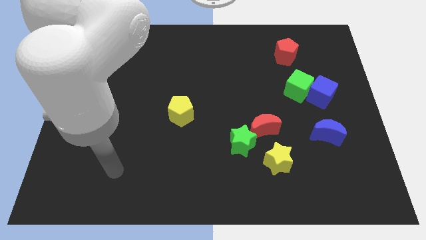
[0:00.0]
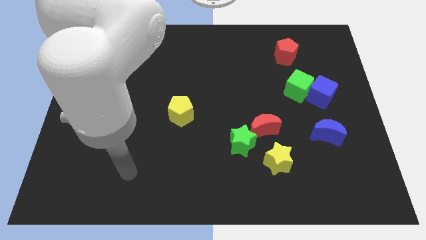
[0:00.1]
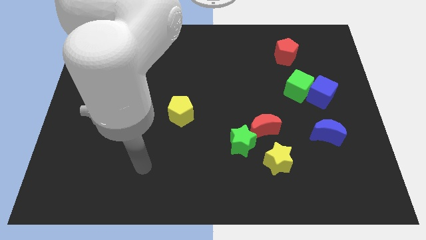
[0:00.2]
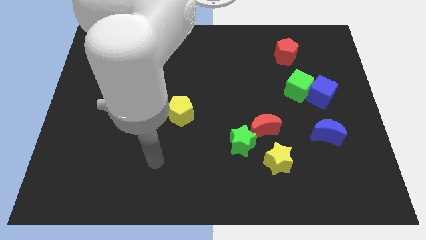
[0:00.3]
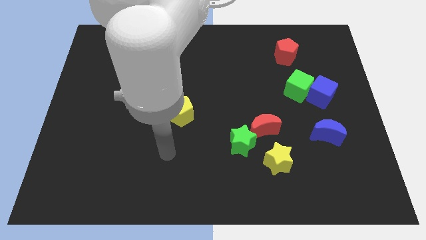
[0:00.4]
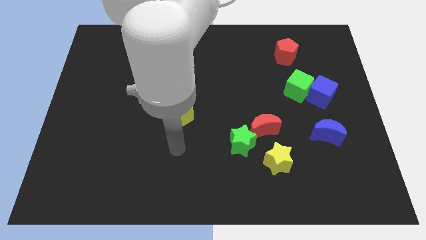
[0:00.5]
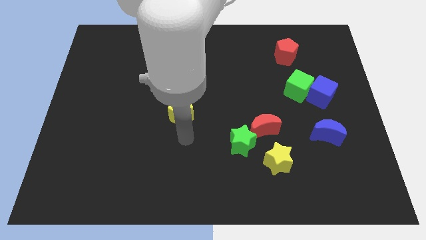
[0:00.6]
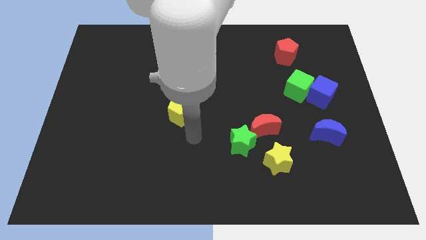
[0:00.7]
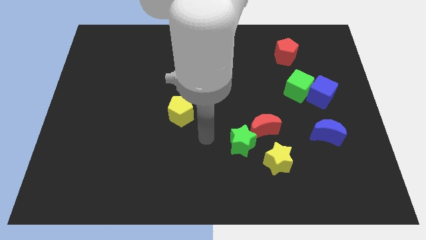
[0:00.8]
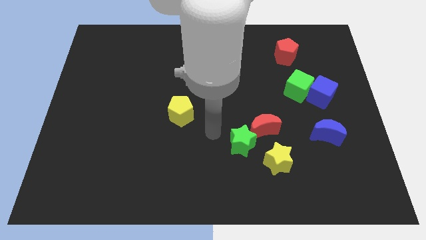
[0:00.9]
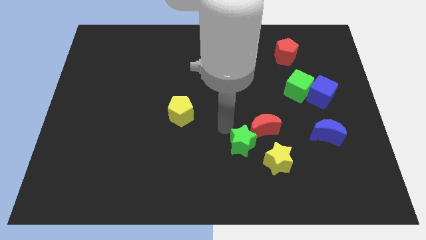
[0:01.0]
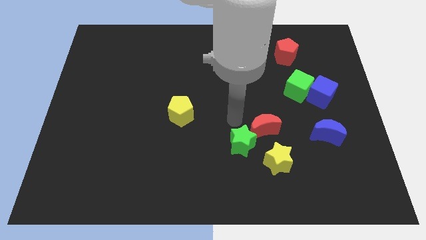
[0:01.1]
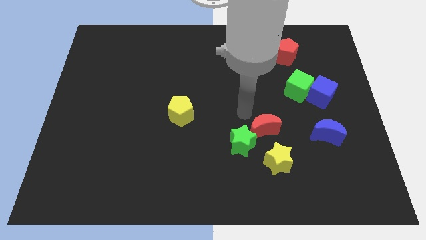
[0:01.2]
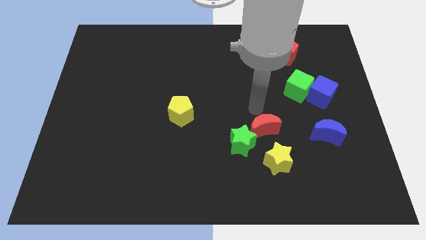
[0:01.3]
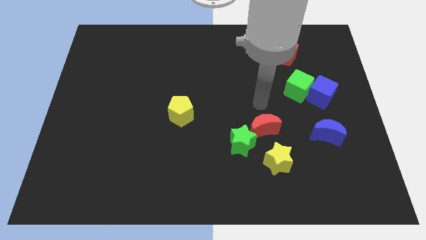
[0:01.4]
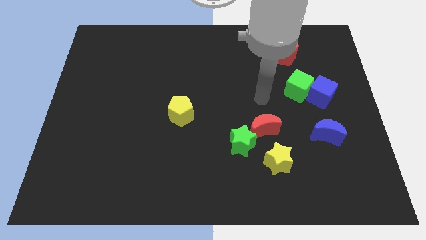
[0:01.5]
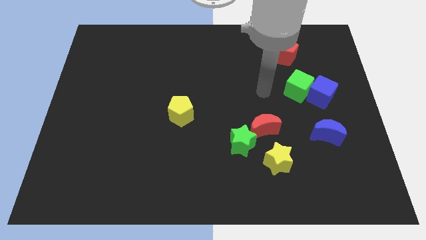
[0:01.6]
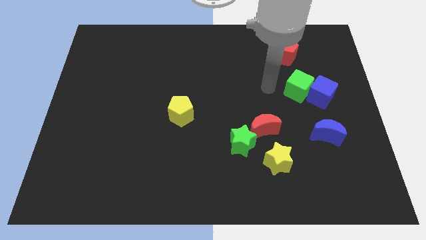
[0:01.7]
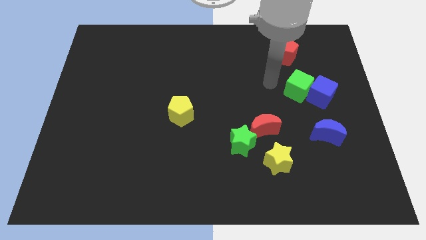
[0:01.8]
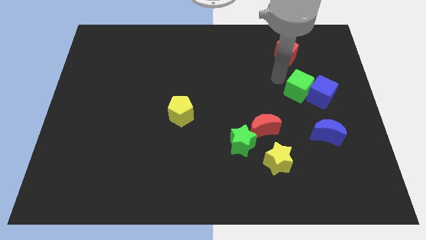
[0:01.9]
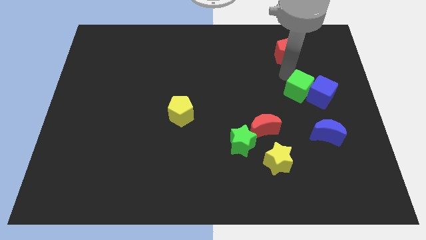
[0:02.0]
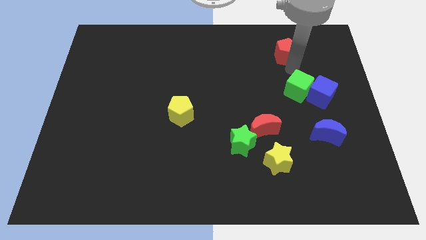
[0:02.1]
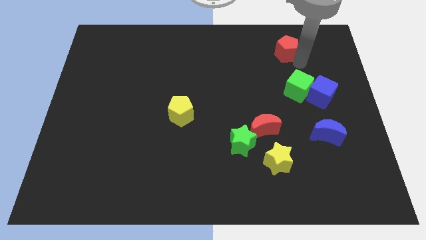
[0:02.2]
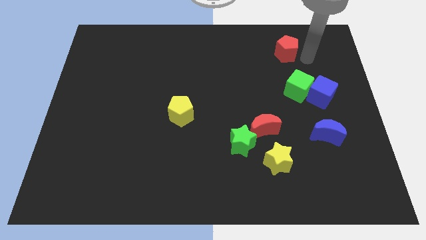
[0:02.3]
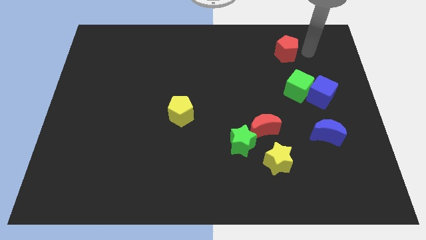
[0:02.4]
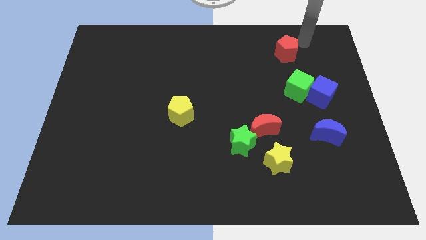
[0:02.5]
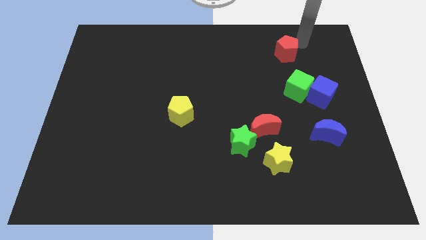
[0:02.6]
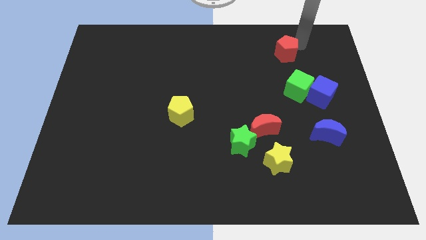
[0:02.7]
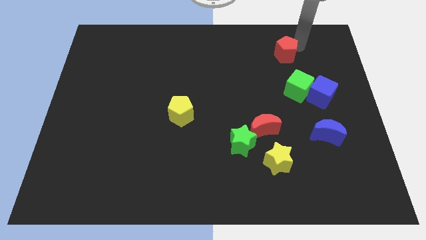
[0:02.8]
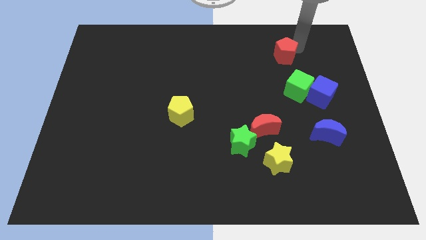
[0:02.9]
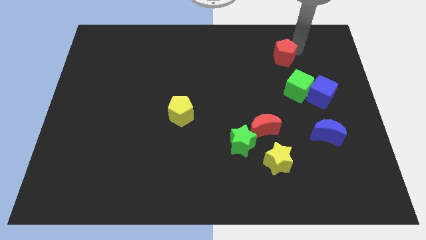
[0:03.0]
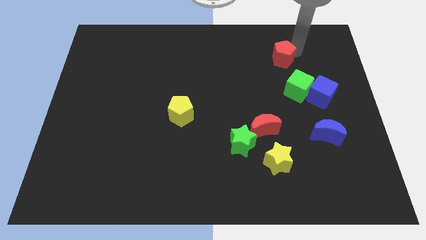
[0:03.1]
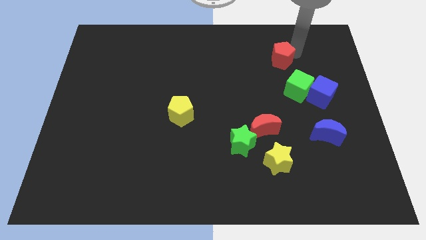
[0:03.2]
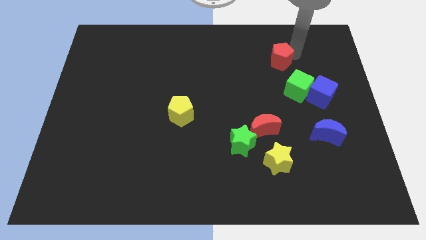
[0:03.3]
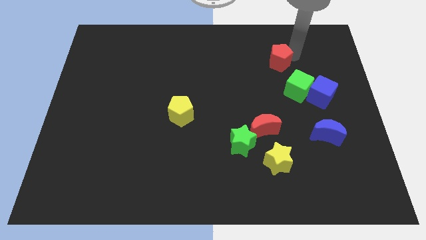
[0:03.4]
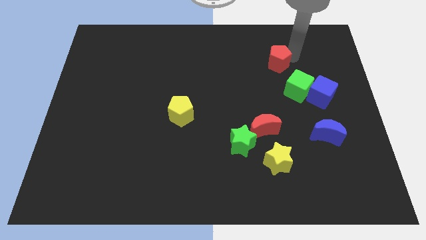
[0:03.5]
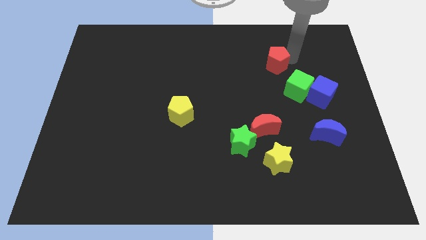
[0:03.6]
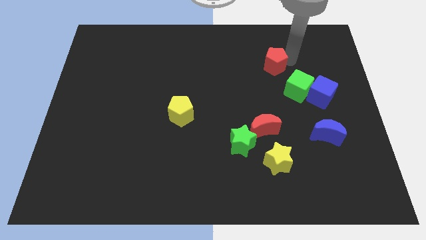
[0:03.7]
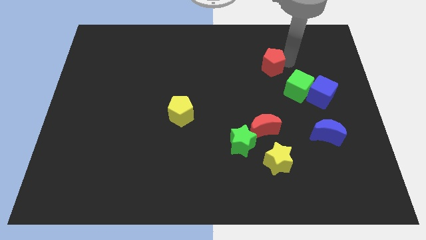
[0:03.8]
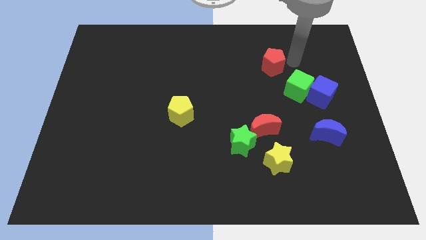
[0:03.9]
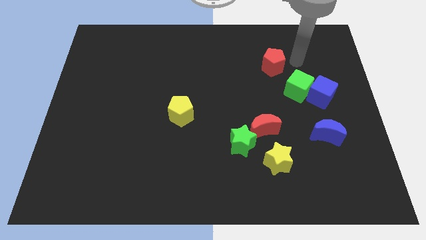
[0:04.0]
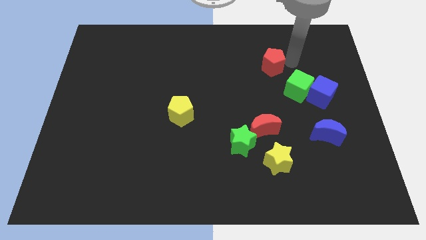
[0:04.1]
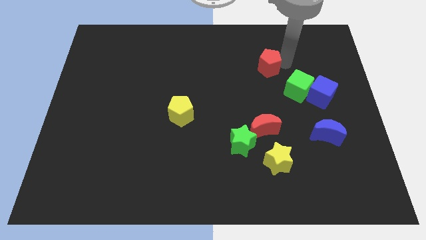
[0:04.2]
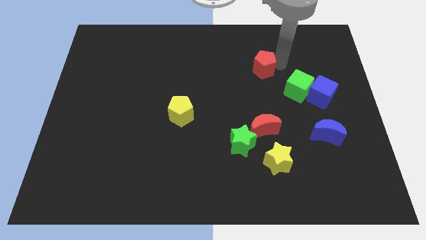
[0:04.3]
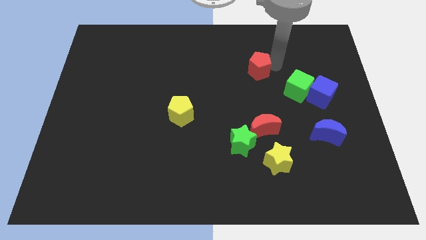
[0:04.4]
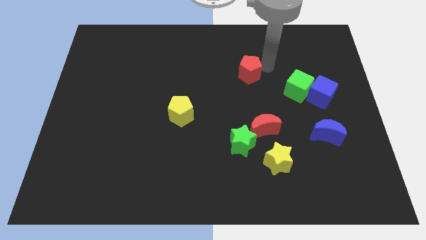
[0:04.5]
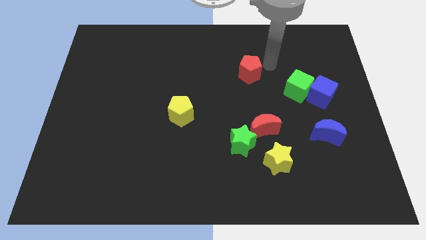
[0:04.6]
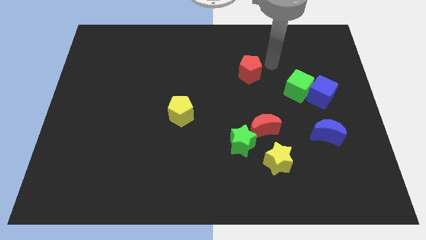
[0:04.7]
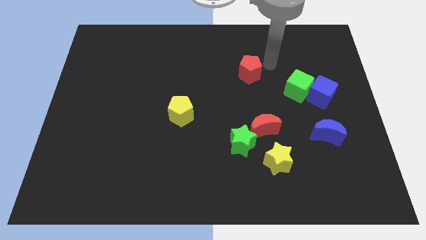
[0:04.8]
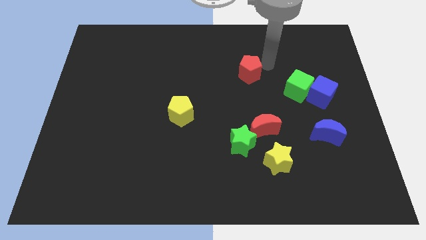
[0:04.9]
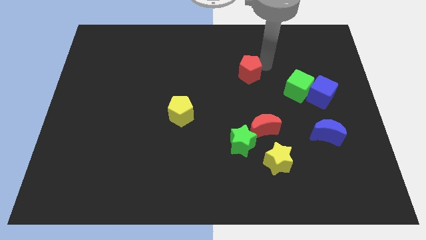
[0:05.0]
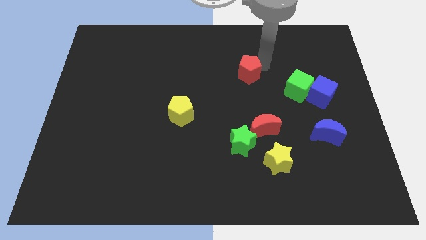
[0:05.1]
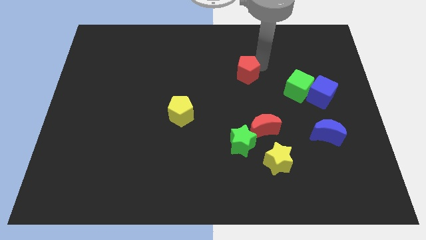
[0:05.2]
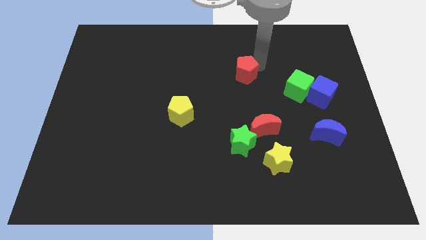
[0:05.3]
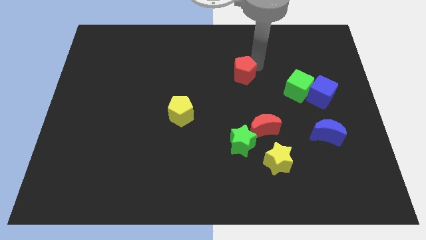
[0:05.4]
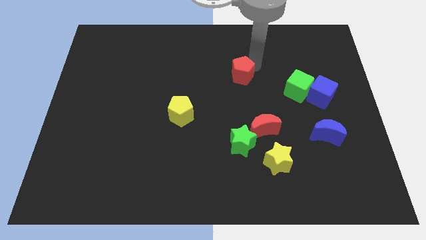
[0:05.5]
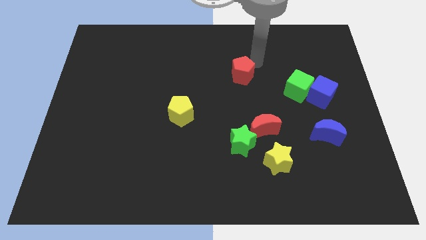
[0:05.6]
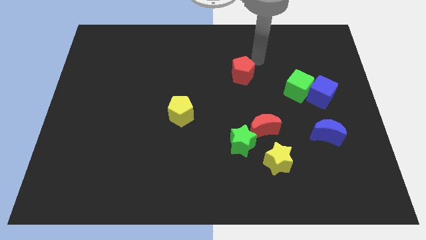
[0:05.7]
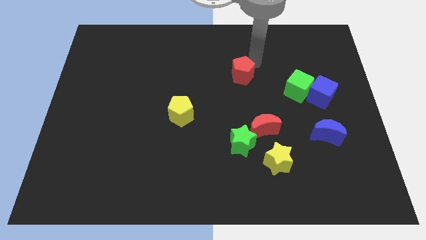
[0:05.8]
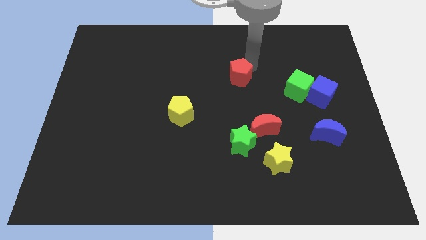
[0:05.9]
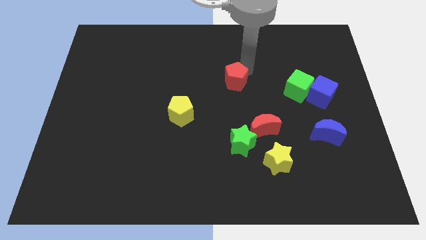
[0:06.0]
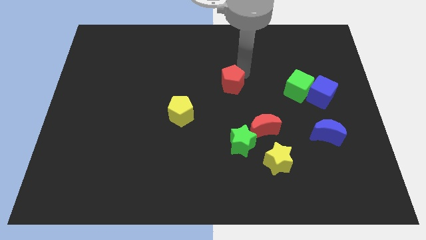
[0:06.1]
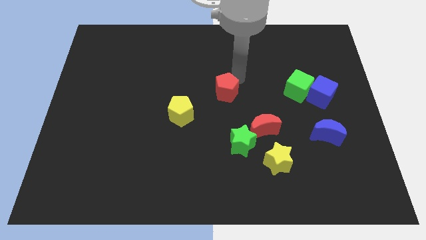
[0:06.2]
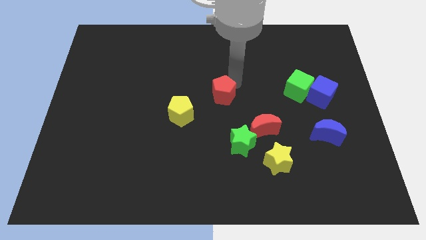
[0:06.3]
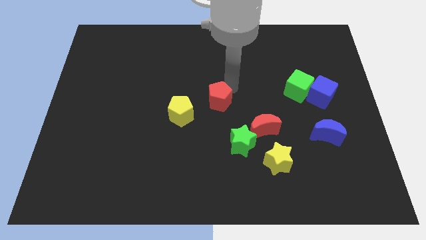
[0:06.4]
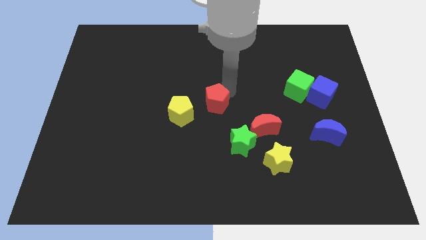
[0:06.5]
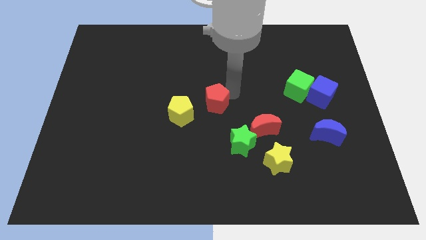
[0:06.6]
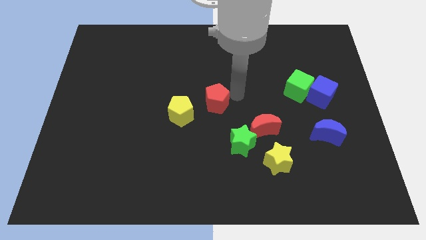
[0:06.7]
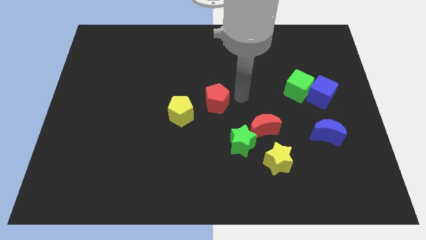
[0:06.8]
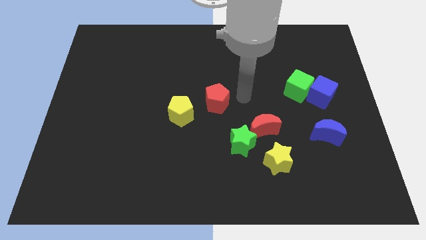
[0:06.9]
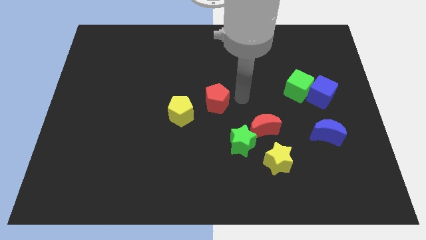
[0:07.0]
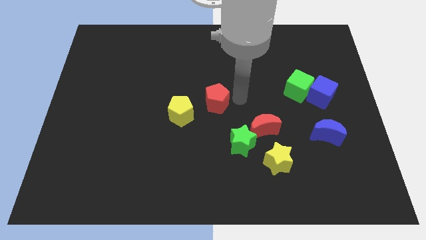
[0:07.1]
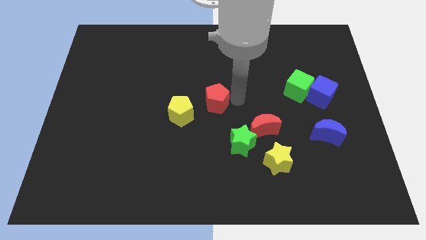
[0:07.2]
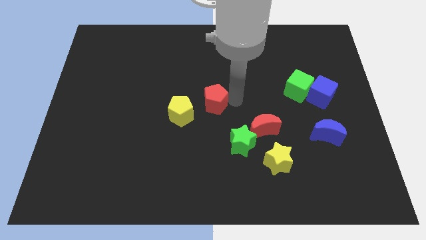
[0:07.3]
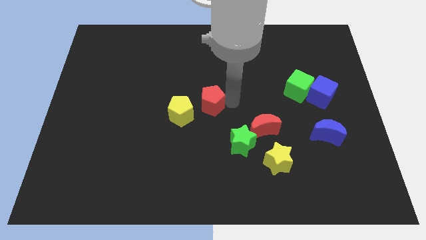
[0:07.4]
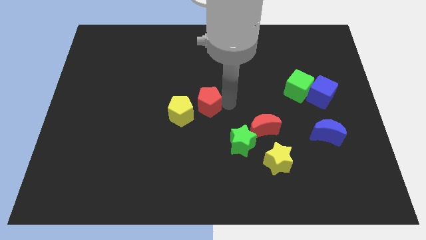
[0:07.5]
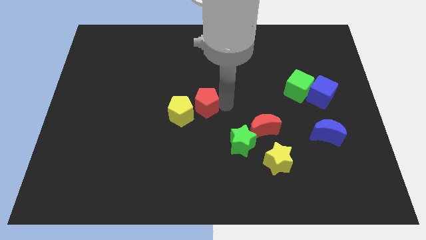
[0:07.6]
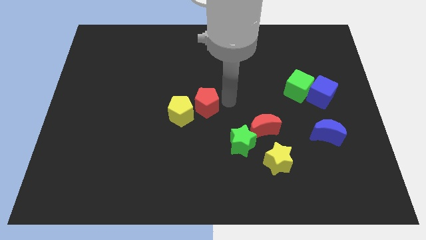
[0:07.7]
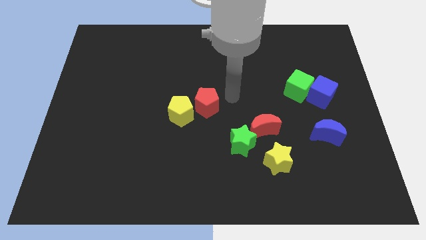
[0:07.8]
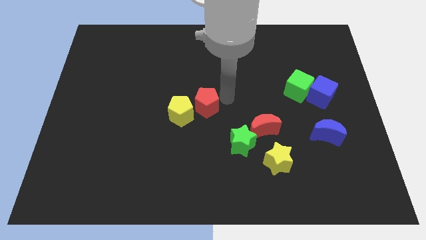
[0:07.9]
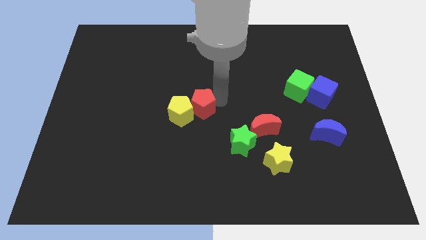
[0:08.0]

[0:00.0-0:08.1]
slide the red pentagon towards the yellow pentagon
